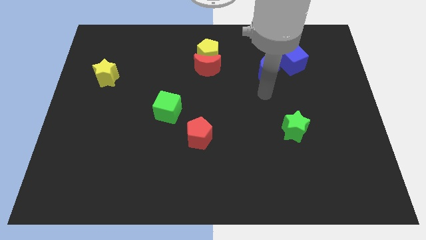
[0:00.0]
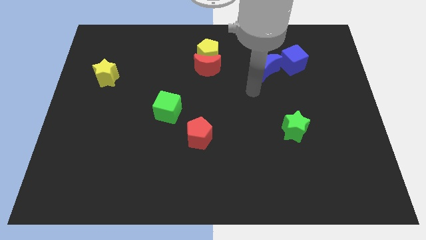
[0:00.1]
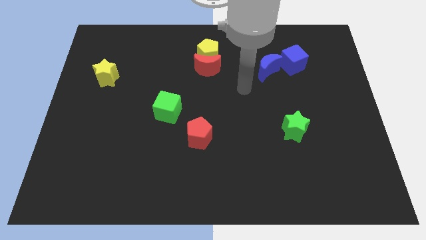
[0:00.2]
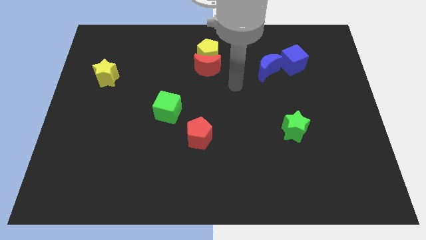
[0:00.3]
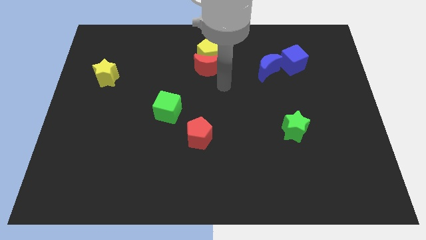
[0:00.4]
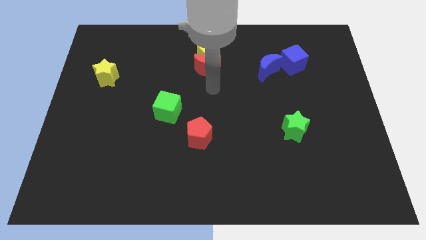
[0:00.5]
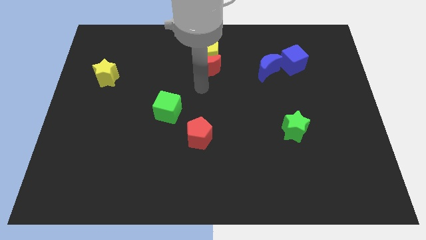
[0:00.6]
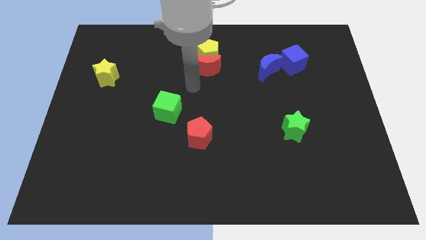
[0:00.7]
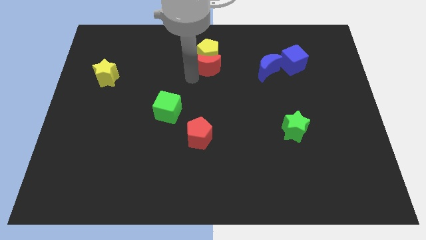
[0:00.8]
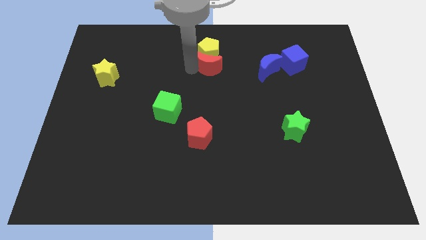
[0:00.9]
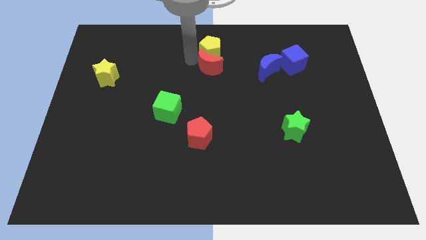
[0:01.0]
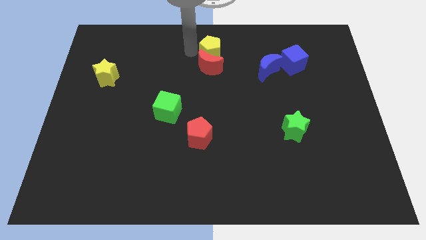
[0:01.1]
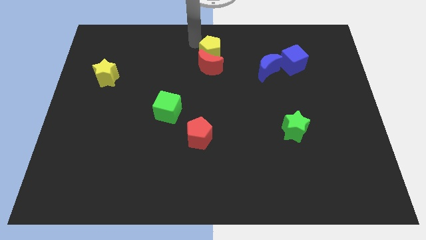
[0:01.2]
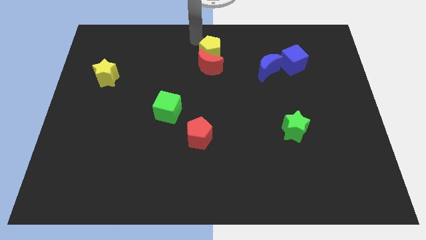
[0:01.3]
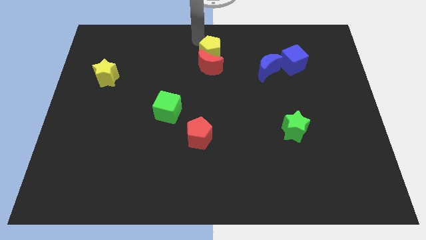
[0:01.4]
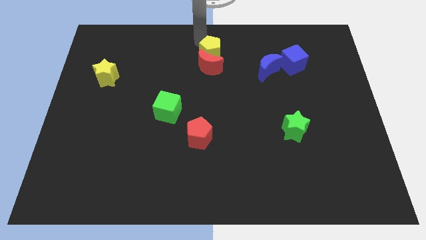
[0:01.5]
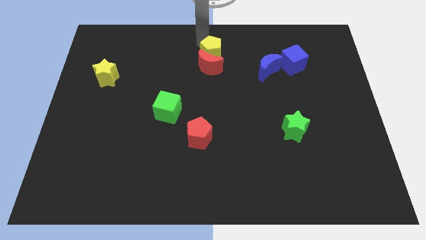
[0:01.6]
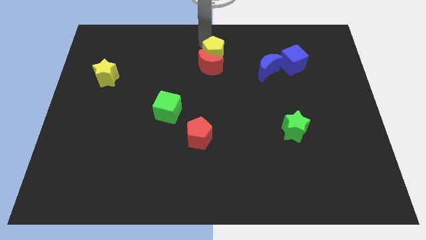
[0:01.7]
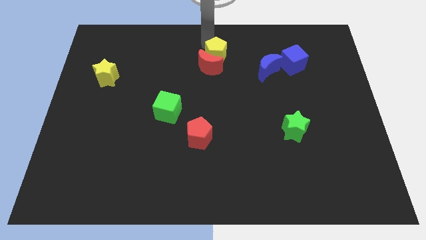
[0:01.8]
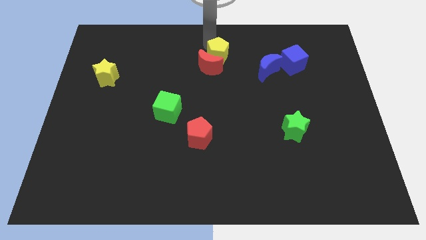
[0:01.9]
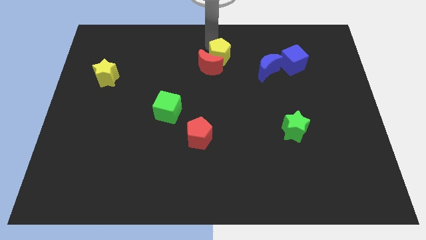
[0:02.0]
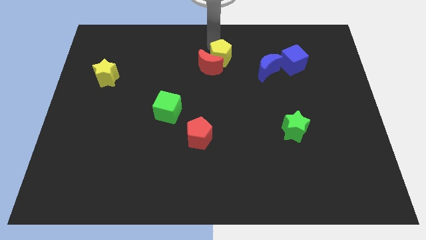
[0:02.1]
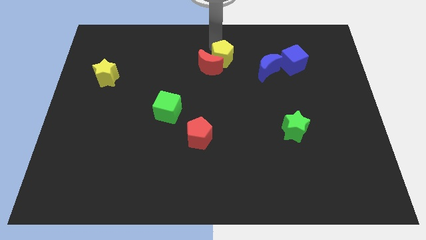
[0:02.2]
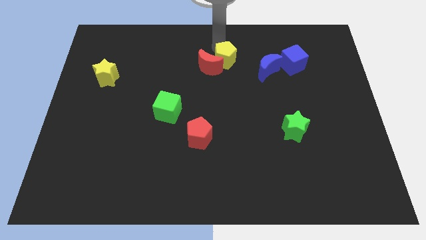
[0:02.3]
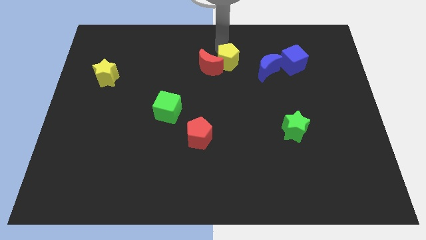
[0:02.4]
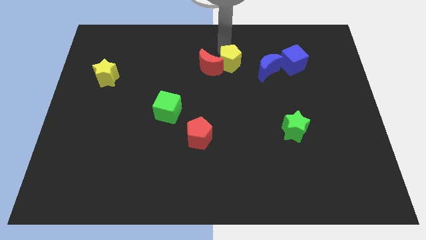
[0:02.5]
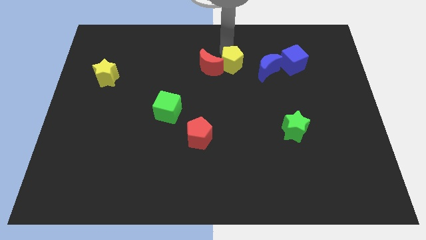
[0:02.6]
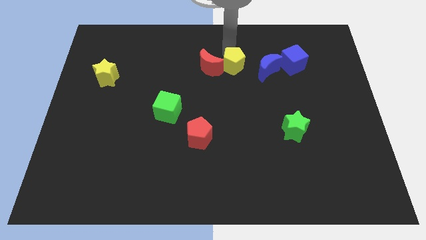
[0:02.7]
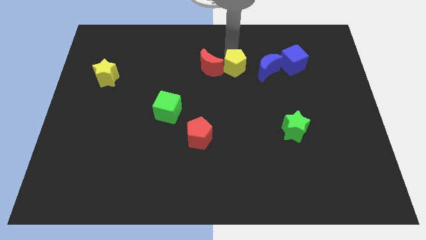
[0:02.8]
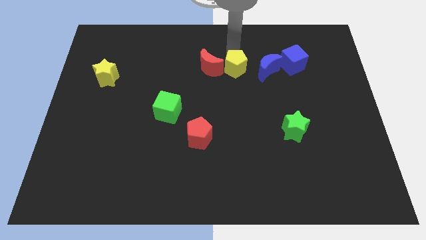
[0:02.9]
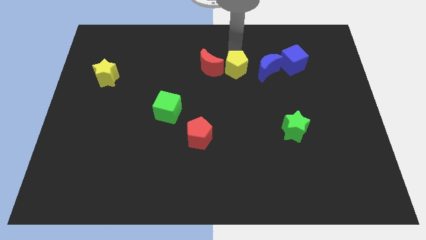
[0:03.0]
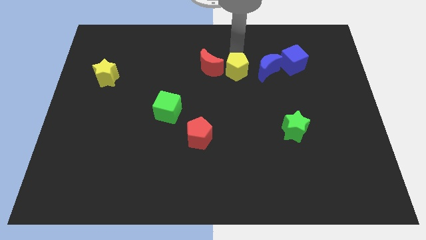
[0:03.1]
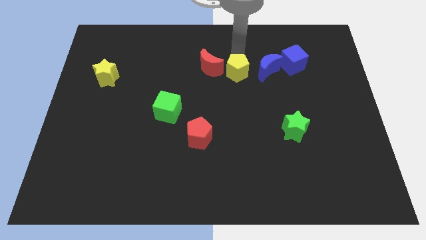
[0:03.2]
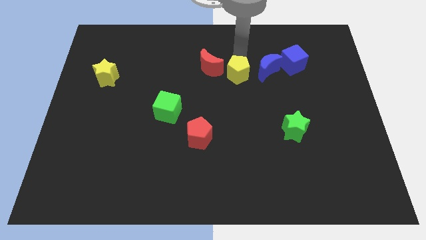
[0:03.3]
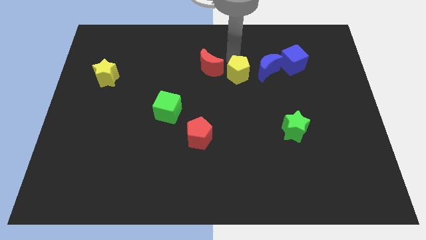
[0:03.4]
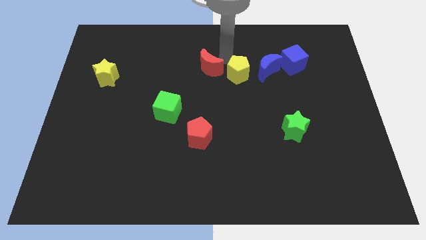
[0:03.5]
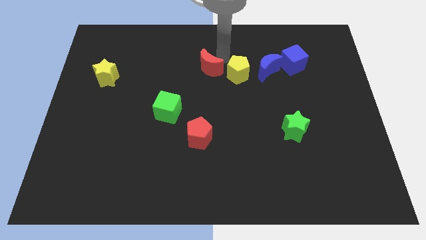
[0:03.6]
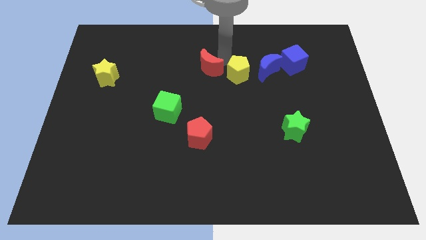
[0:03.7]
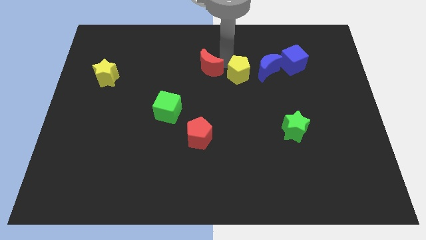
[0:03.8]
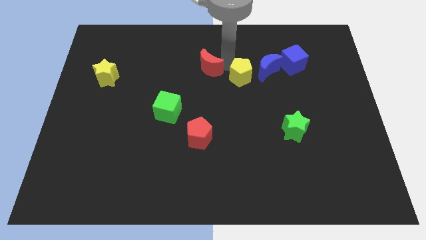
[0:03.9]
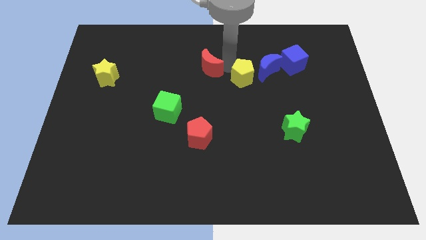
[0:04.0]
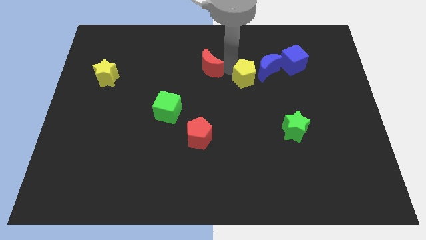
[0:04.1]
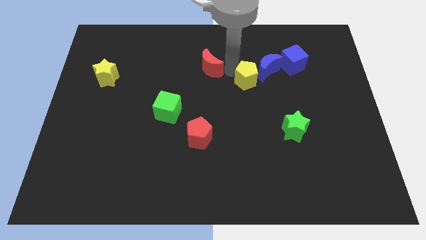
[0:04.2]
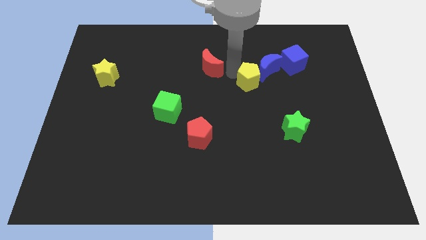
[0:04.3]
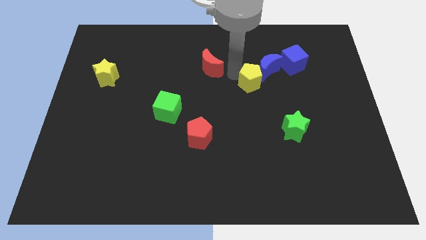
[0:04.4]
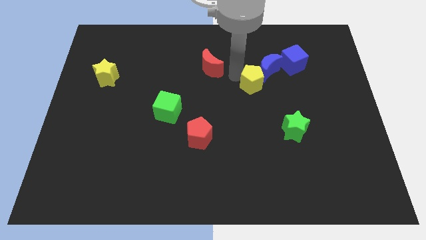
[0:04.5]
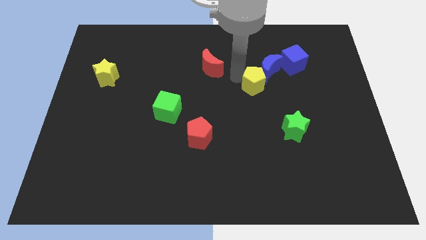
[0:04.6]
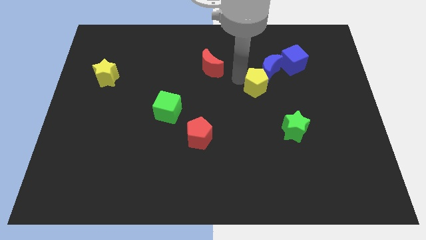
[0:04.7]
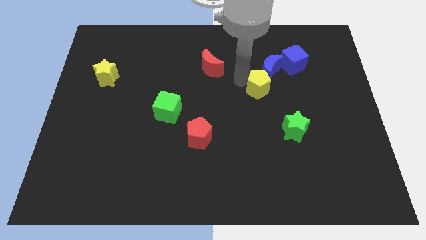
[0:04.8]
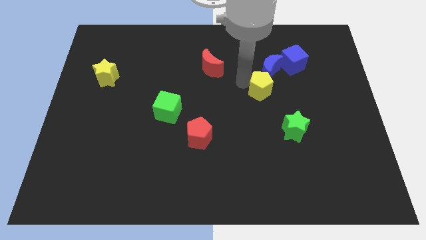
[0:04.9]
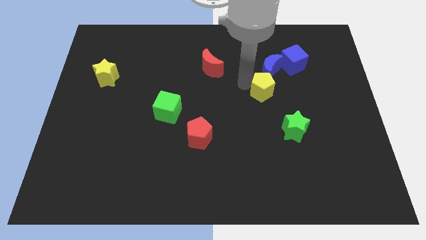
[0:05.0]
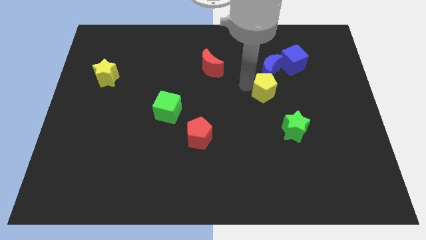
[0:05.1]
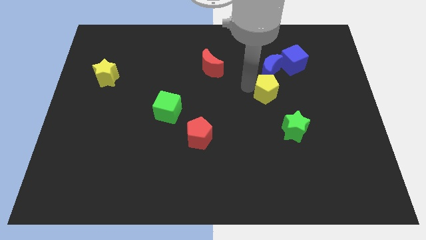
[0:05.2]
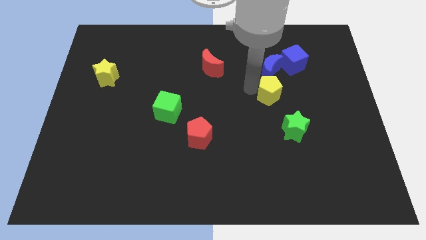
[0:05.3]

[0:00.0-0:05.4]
push the yellow pentagon downwards and then to the right

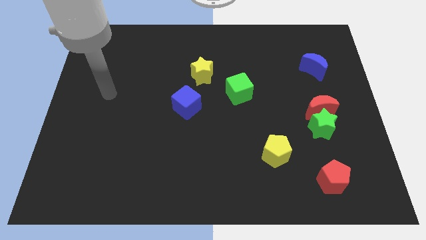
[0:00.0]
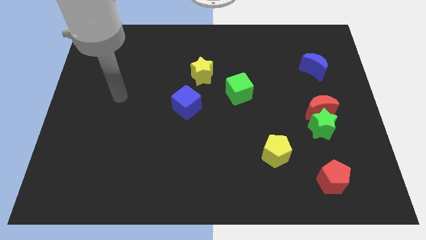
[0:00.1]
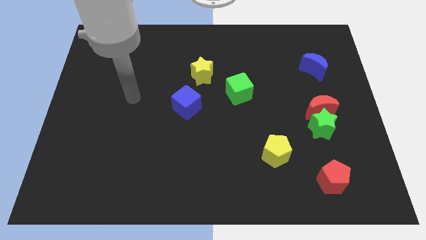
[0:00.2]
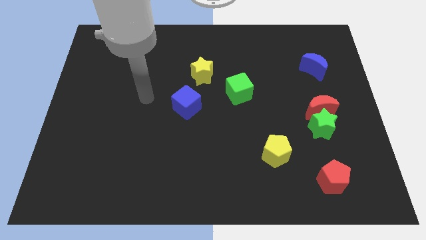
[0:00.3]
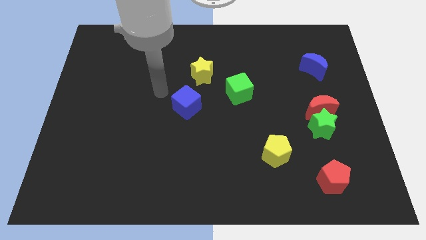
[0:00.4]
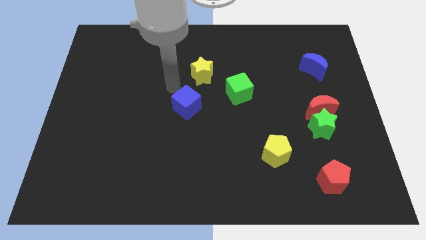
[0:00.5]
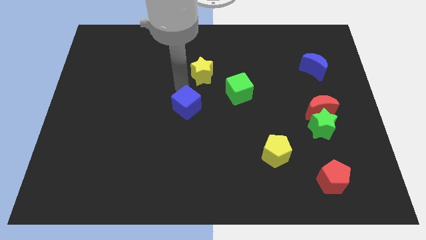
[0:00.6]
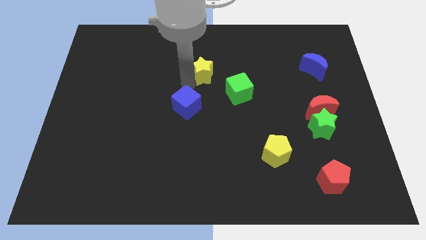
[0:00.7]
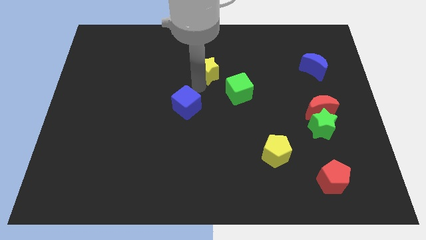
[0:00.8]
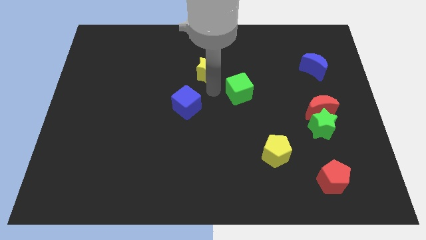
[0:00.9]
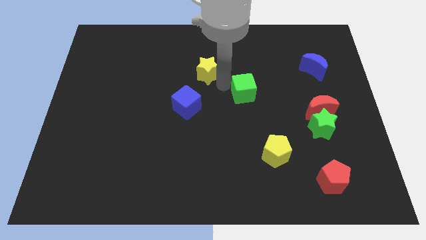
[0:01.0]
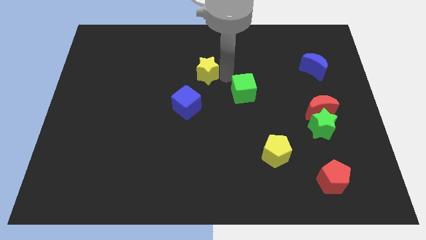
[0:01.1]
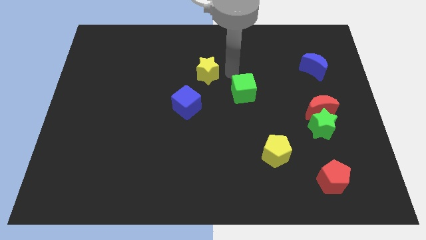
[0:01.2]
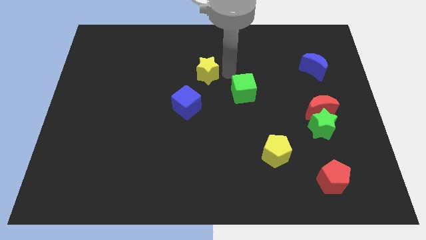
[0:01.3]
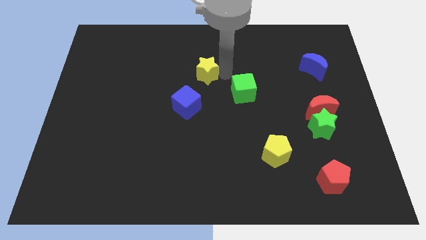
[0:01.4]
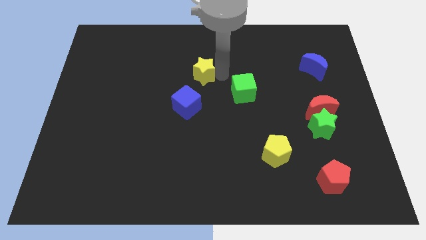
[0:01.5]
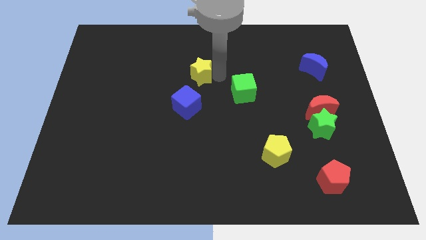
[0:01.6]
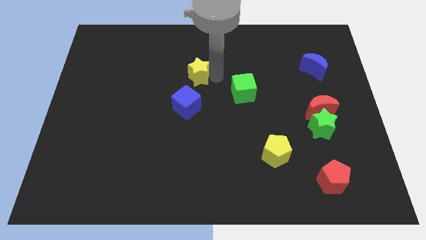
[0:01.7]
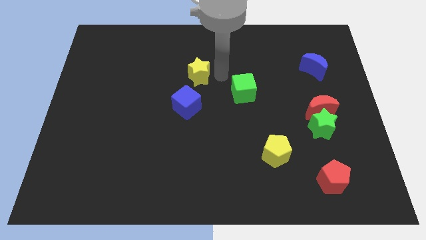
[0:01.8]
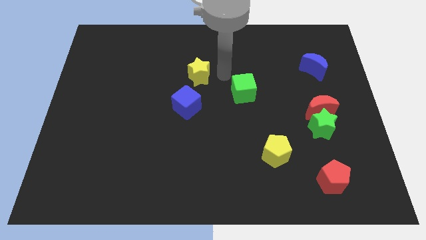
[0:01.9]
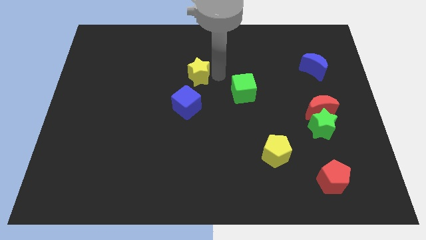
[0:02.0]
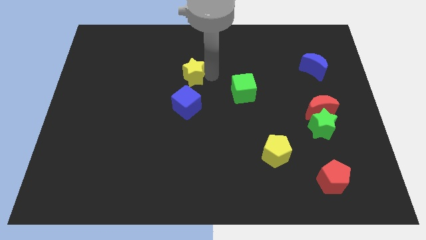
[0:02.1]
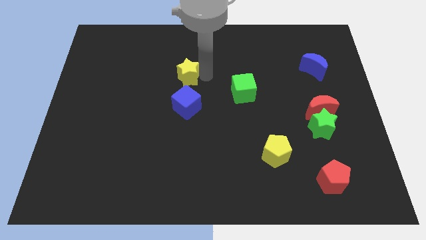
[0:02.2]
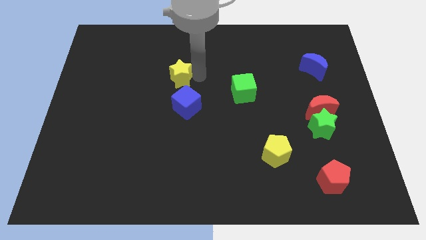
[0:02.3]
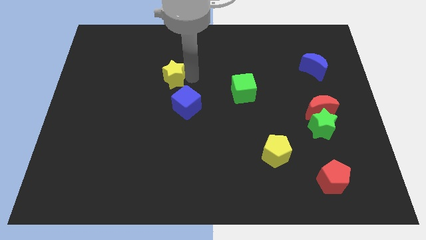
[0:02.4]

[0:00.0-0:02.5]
slide the yellow star to the left a bit

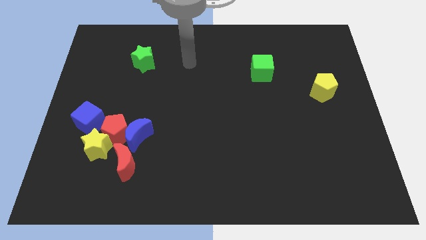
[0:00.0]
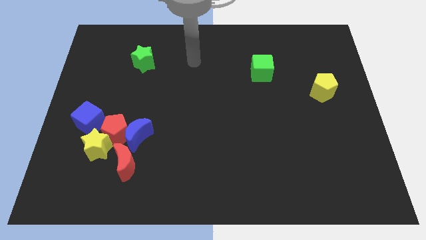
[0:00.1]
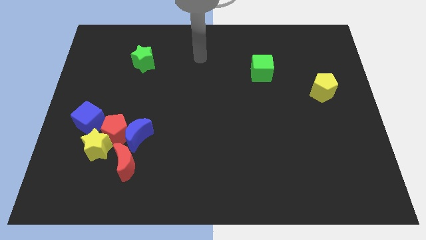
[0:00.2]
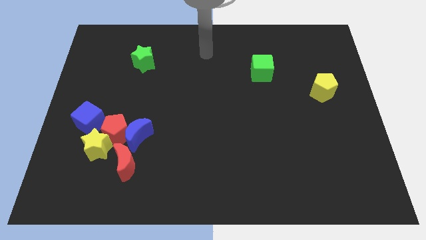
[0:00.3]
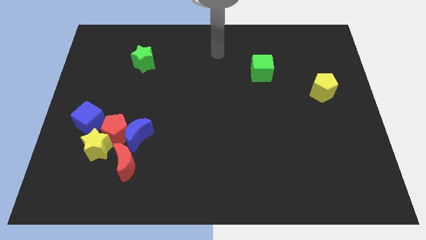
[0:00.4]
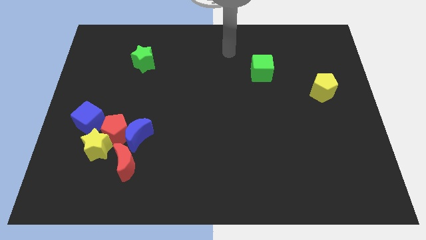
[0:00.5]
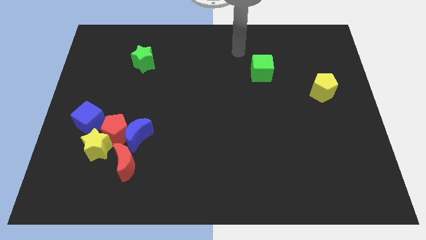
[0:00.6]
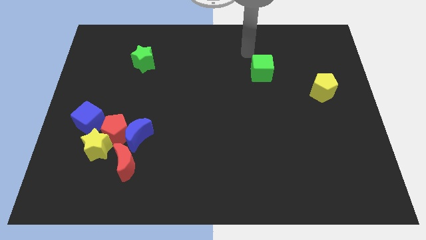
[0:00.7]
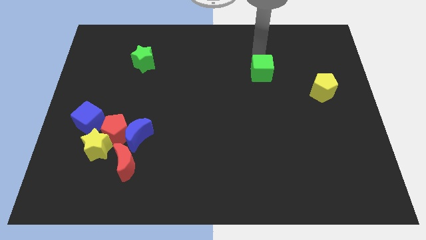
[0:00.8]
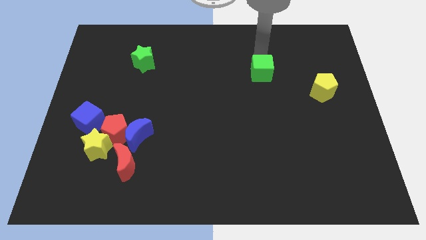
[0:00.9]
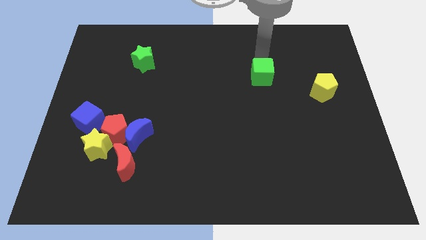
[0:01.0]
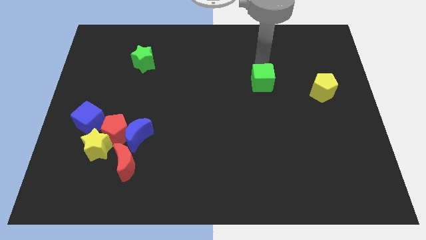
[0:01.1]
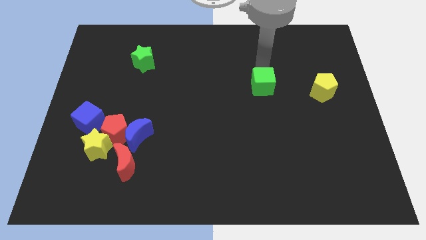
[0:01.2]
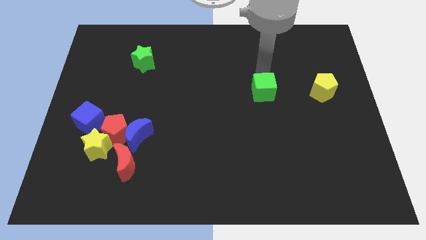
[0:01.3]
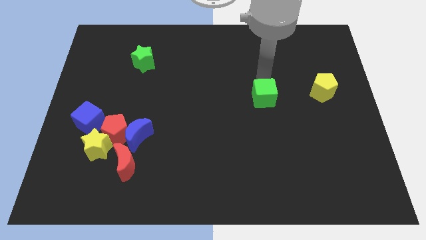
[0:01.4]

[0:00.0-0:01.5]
push the green cube downwards a little bit
